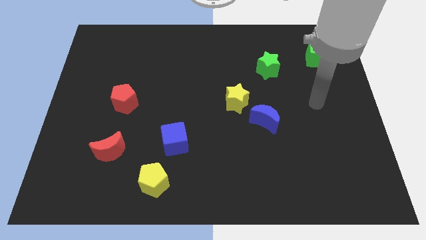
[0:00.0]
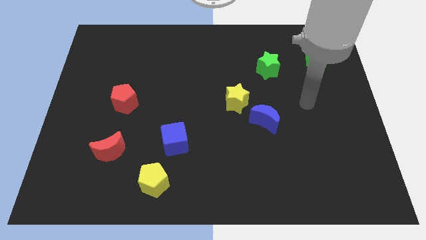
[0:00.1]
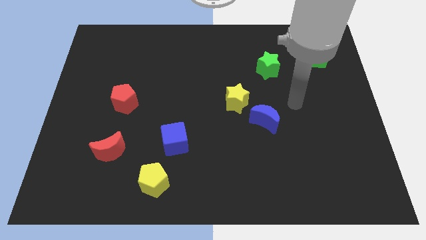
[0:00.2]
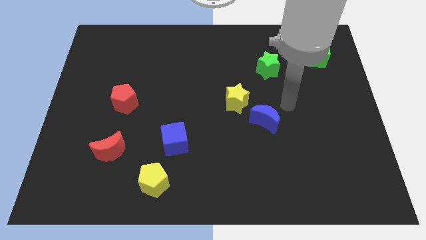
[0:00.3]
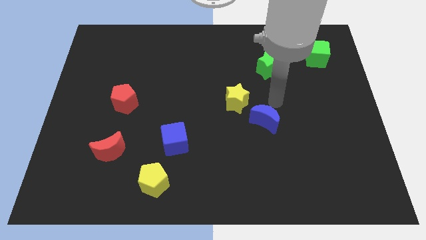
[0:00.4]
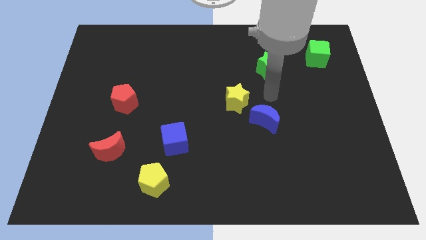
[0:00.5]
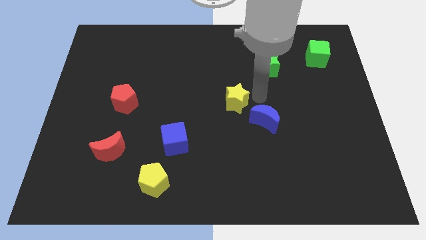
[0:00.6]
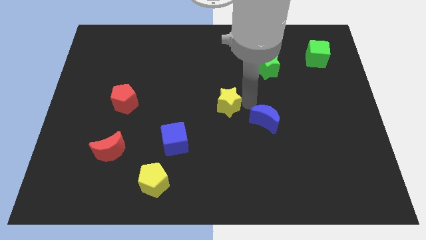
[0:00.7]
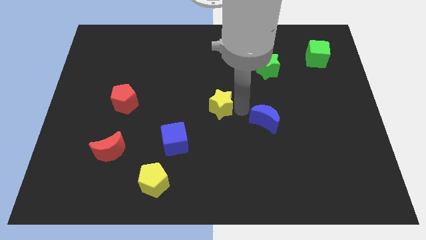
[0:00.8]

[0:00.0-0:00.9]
separate the blue moon from the yellow star

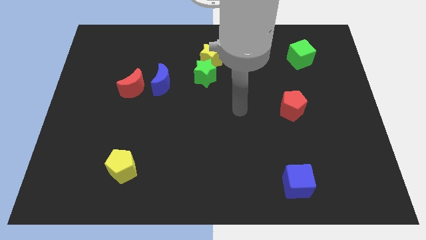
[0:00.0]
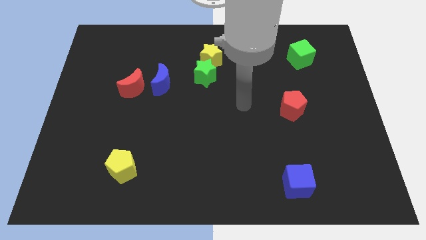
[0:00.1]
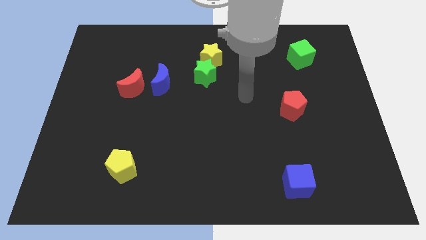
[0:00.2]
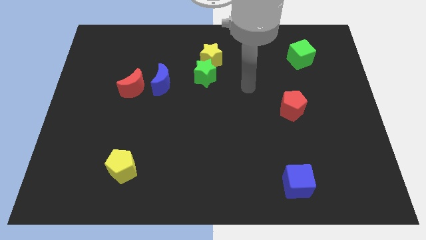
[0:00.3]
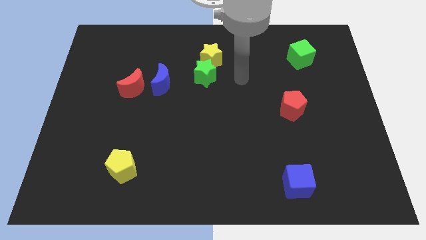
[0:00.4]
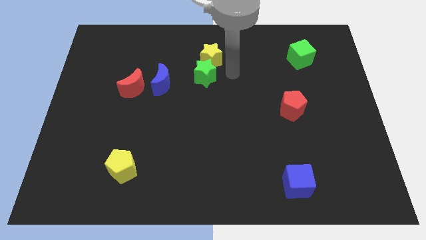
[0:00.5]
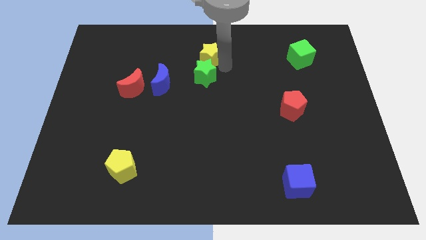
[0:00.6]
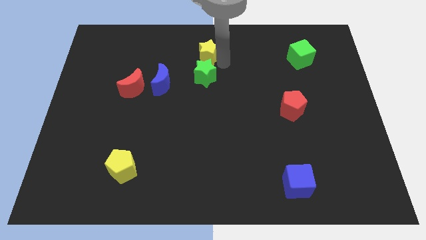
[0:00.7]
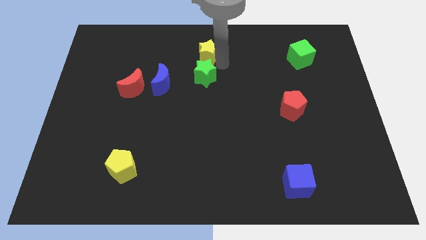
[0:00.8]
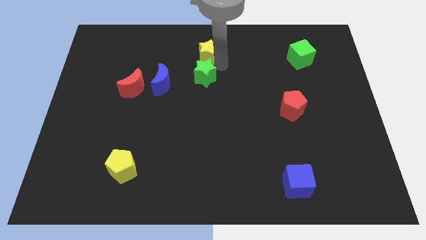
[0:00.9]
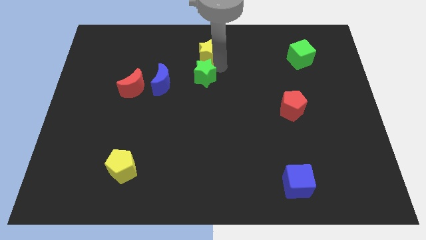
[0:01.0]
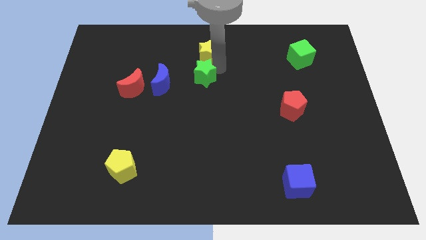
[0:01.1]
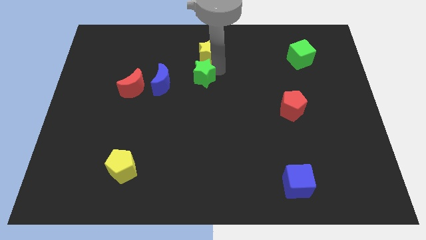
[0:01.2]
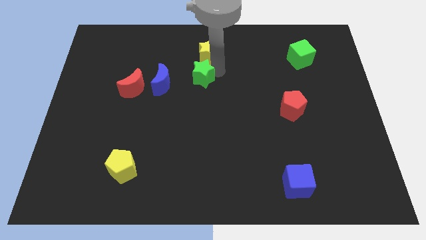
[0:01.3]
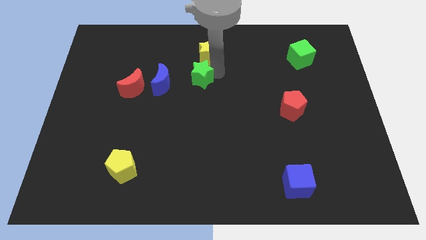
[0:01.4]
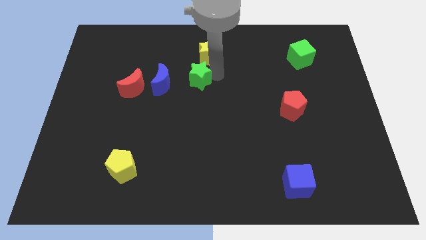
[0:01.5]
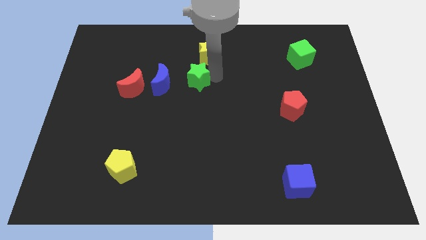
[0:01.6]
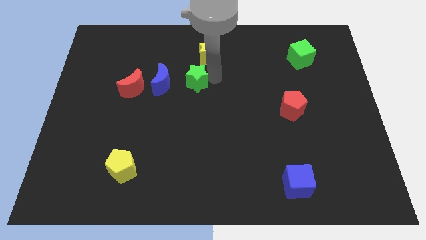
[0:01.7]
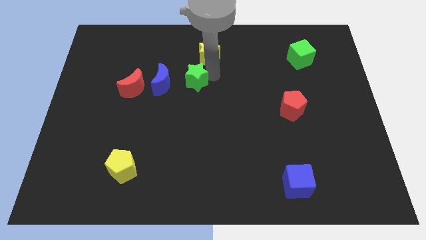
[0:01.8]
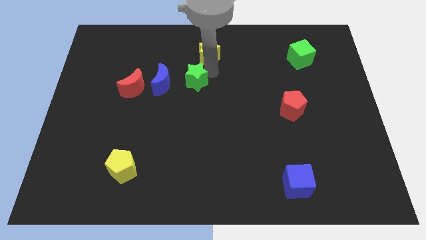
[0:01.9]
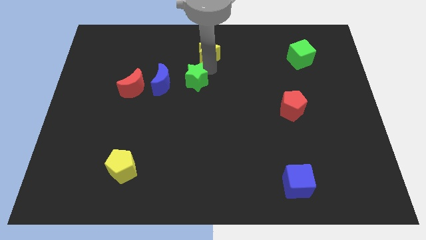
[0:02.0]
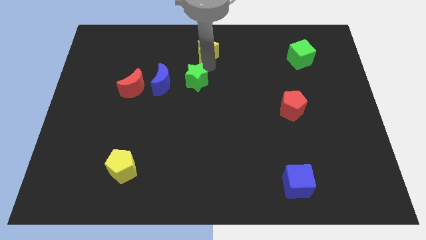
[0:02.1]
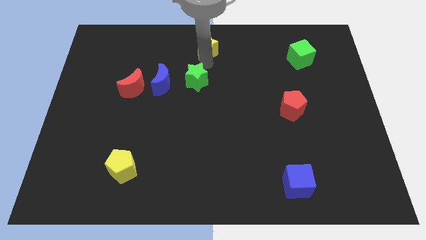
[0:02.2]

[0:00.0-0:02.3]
pull the green star apart from the yellow star

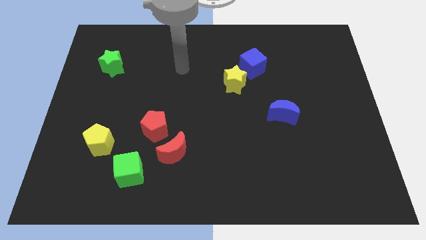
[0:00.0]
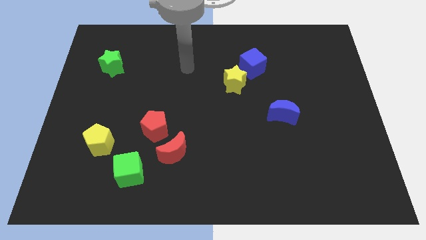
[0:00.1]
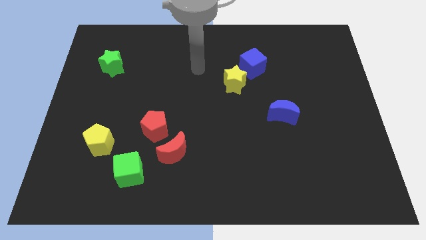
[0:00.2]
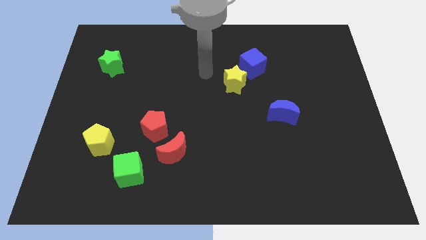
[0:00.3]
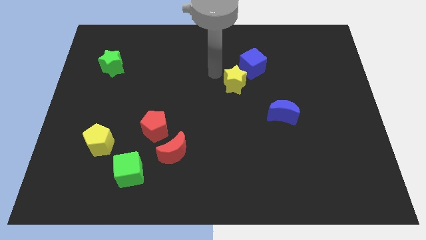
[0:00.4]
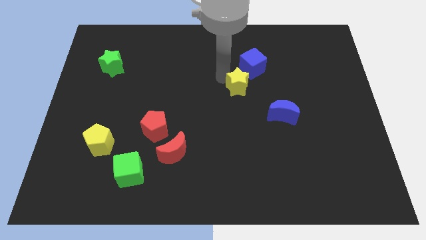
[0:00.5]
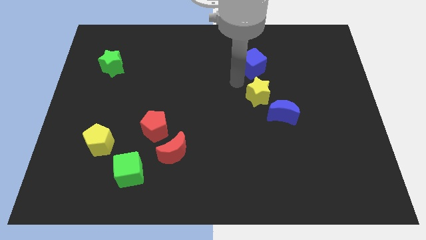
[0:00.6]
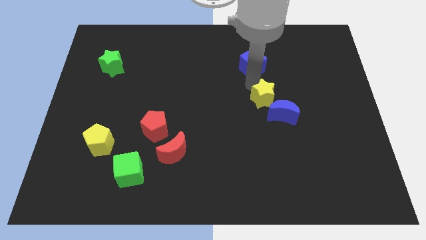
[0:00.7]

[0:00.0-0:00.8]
separate the blue cube from the yellow star

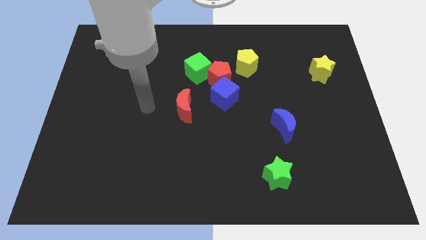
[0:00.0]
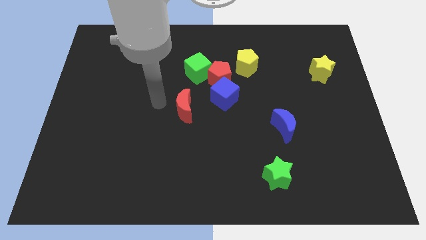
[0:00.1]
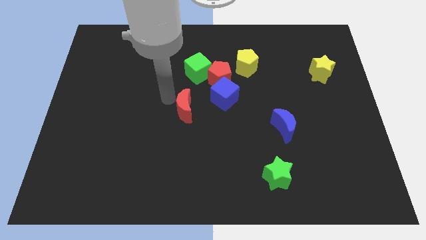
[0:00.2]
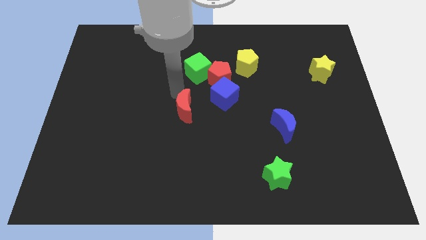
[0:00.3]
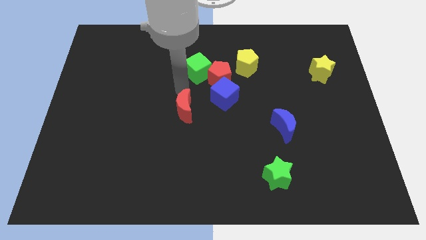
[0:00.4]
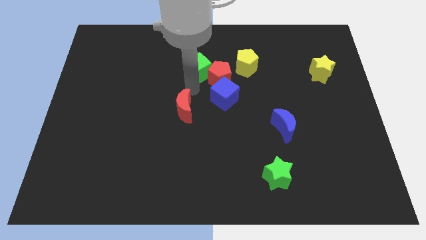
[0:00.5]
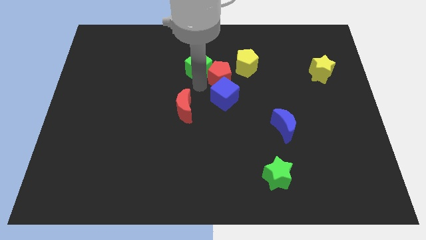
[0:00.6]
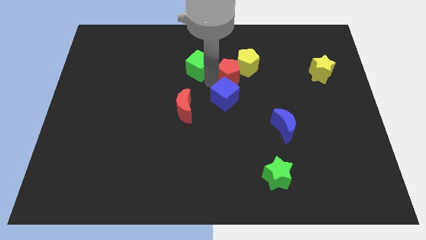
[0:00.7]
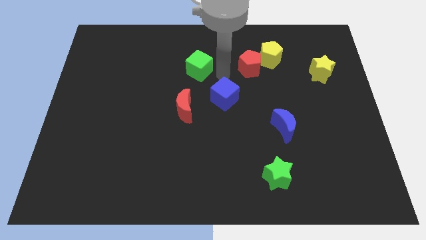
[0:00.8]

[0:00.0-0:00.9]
separate the green cube from the red pentagon

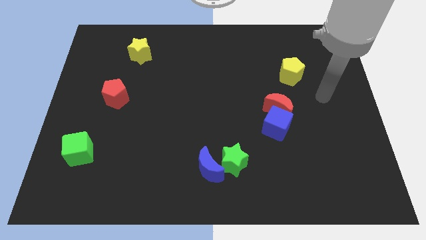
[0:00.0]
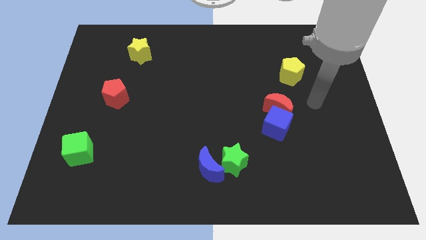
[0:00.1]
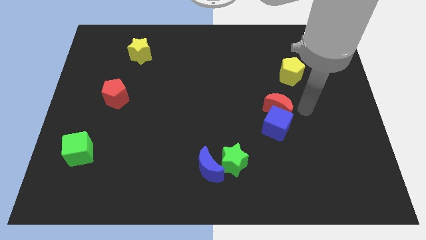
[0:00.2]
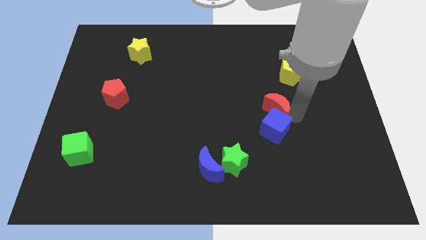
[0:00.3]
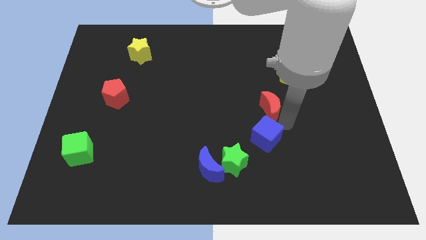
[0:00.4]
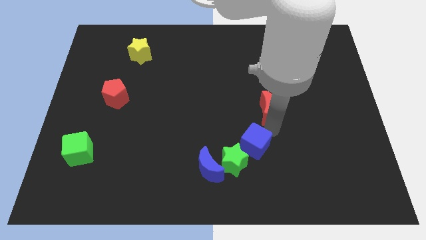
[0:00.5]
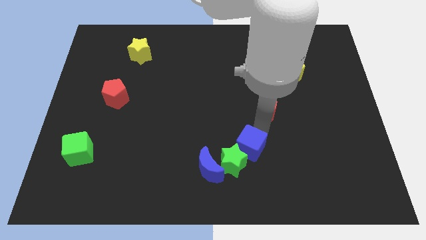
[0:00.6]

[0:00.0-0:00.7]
separate the red moon from the blue cube

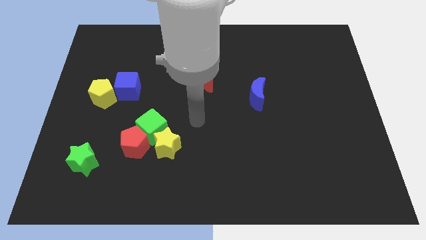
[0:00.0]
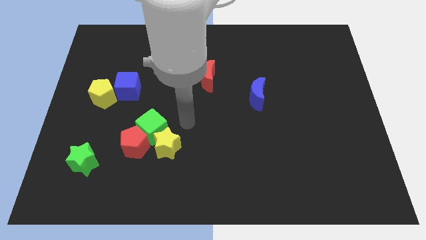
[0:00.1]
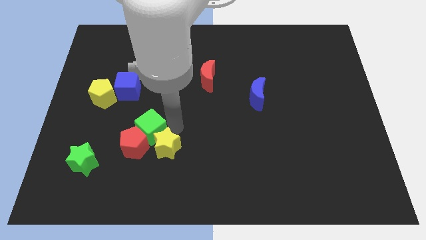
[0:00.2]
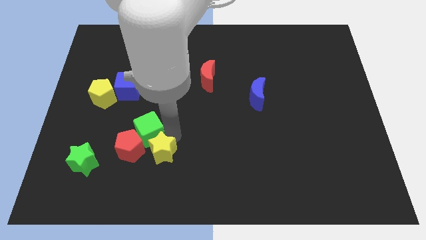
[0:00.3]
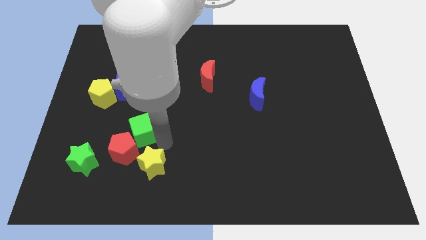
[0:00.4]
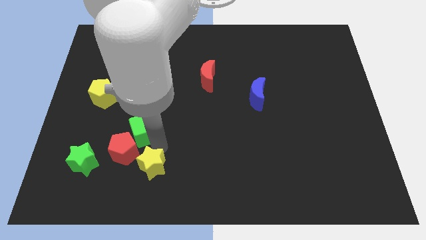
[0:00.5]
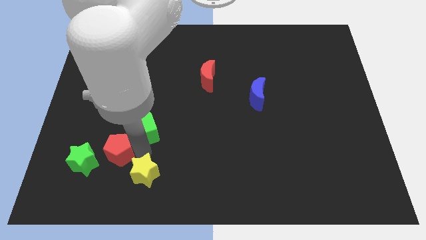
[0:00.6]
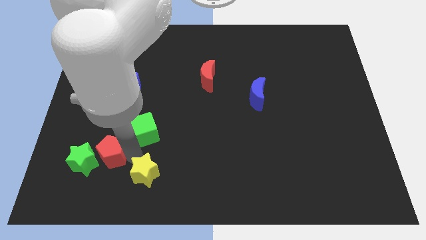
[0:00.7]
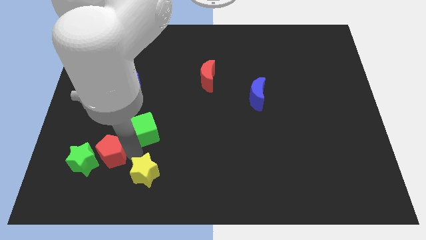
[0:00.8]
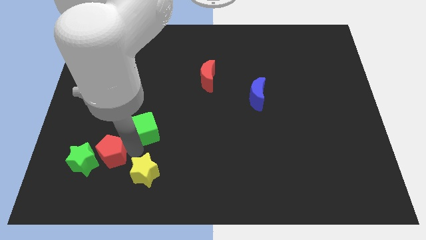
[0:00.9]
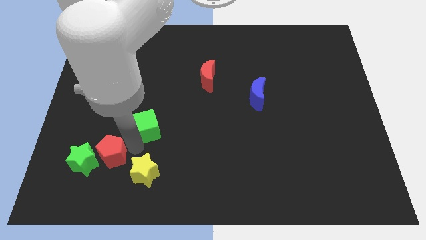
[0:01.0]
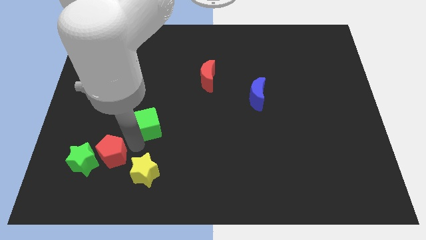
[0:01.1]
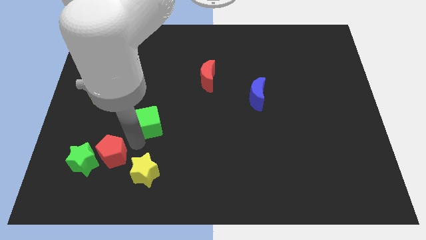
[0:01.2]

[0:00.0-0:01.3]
pull the green cube apart from the red pentagon and yellow star

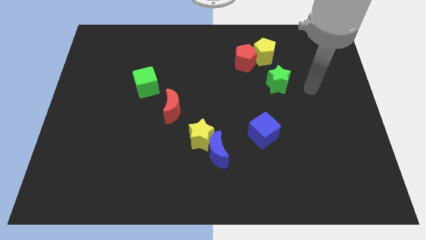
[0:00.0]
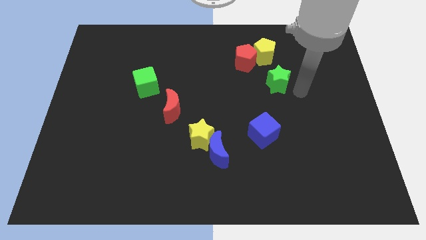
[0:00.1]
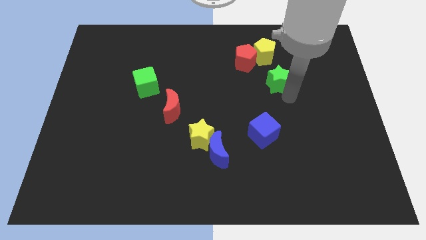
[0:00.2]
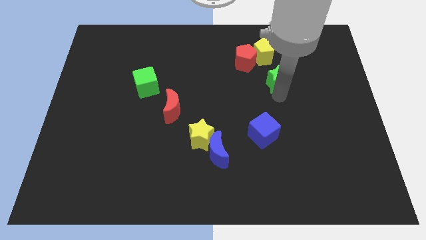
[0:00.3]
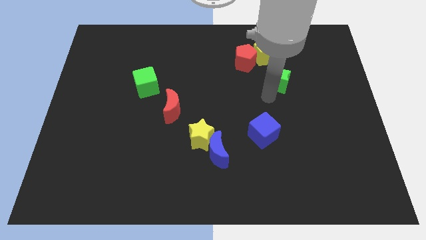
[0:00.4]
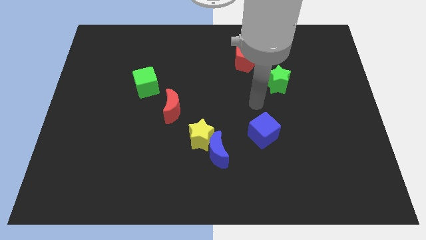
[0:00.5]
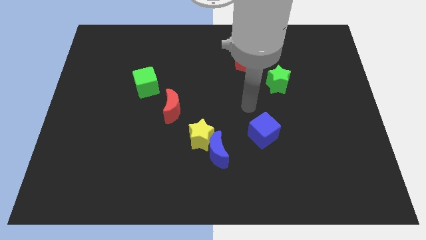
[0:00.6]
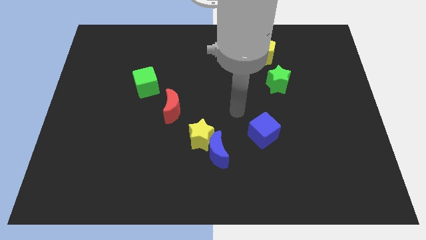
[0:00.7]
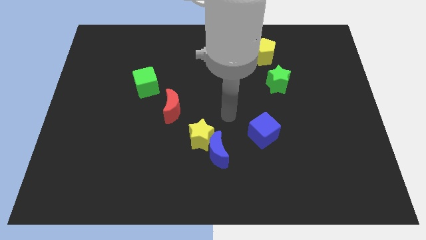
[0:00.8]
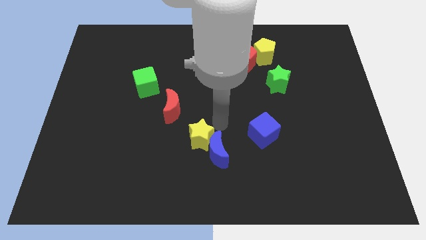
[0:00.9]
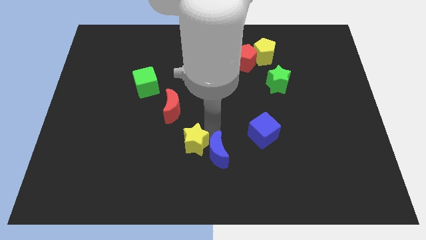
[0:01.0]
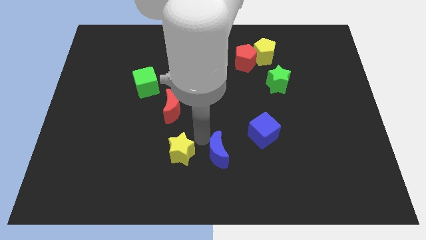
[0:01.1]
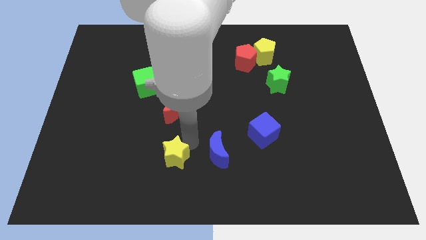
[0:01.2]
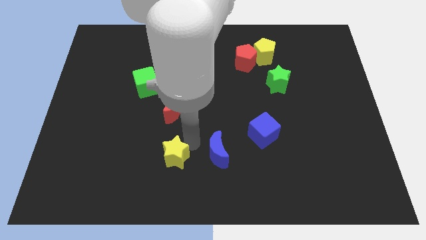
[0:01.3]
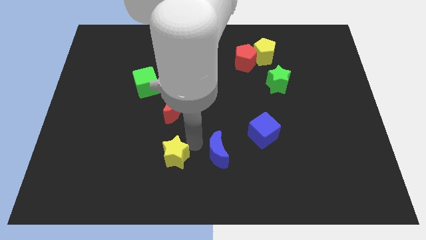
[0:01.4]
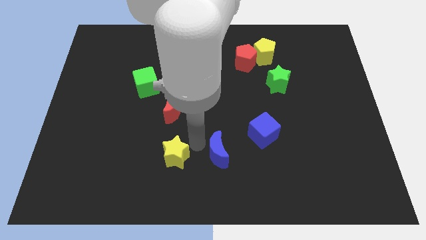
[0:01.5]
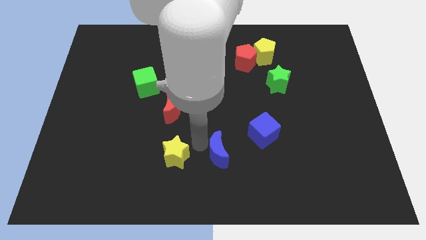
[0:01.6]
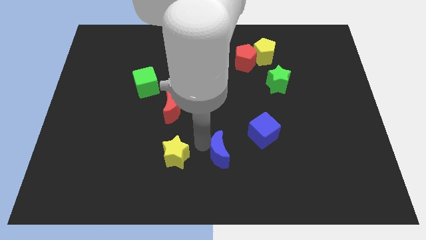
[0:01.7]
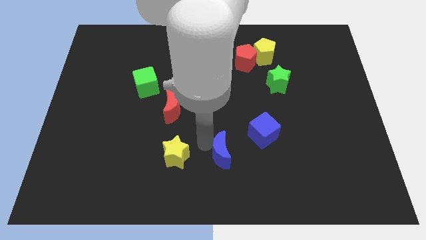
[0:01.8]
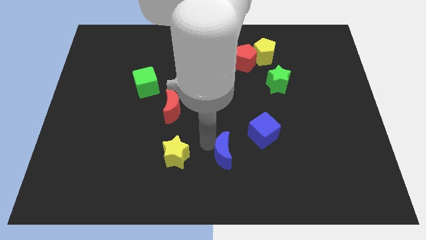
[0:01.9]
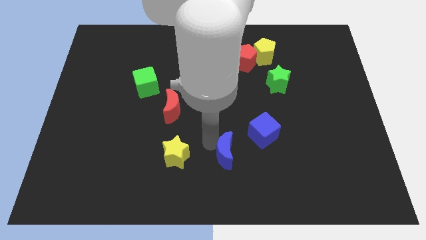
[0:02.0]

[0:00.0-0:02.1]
move the blue moon away from the yellow star

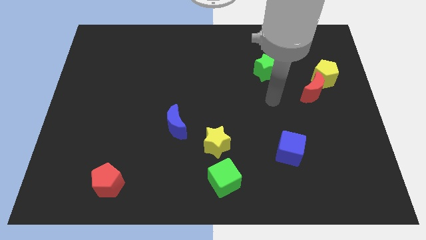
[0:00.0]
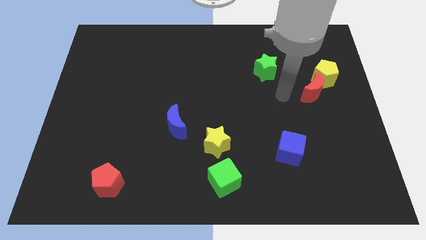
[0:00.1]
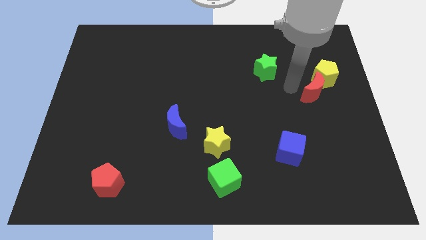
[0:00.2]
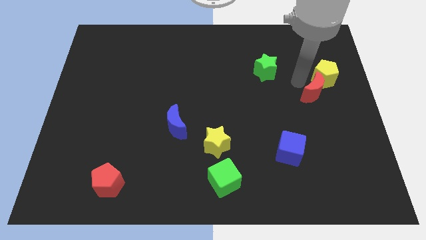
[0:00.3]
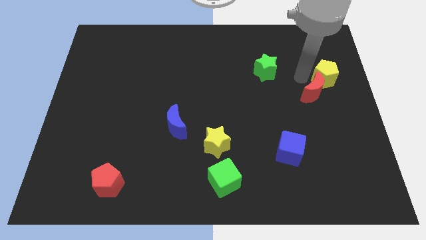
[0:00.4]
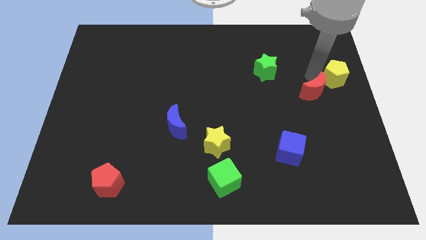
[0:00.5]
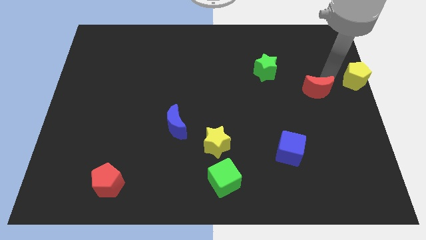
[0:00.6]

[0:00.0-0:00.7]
separate the red moon from the yellow pentagon
